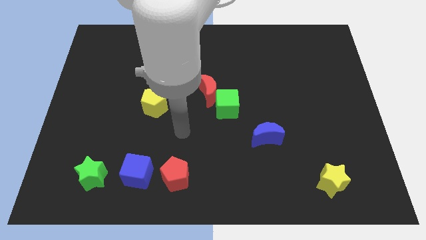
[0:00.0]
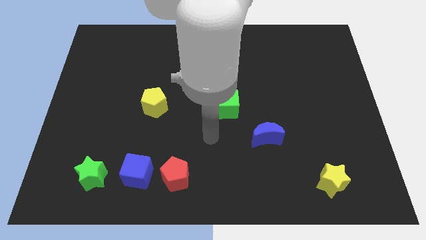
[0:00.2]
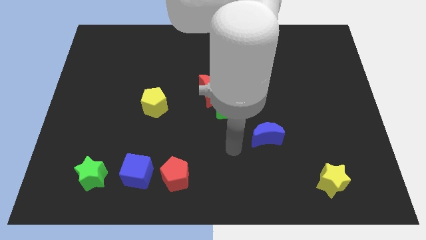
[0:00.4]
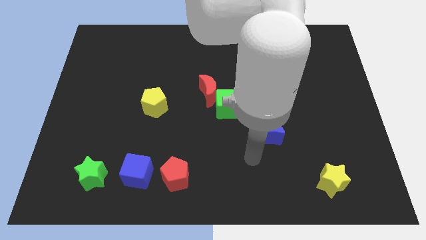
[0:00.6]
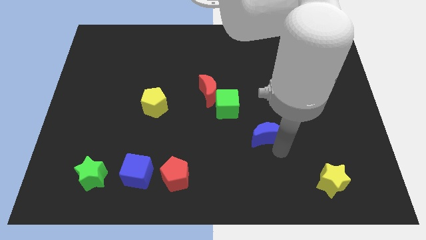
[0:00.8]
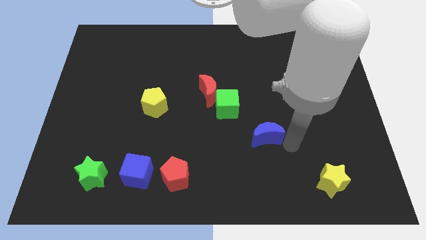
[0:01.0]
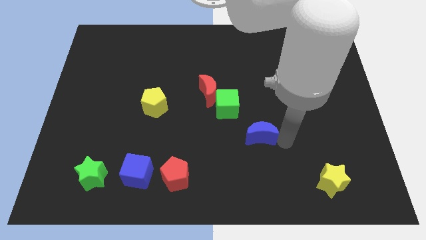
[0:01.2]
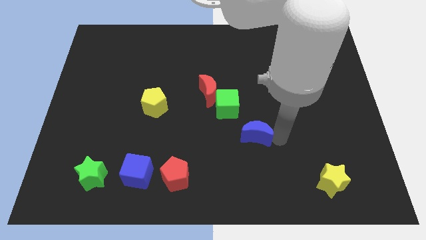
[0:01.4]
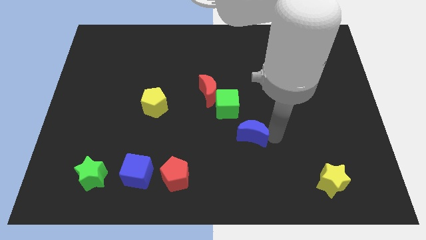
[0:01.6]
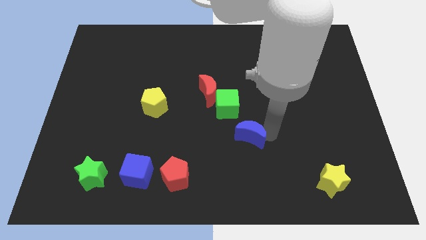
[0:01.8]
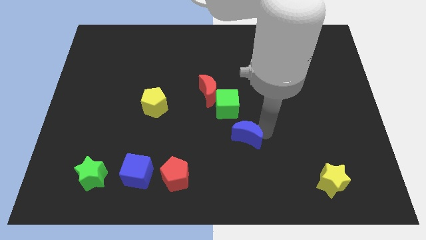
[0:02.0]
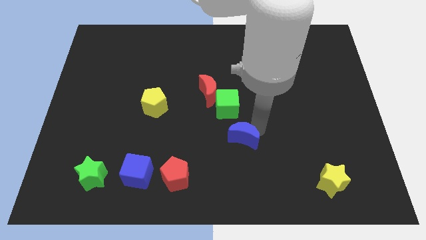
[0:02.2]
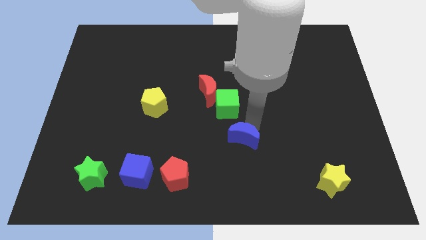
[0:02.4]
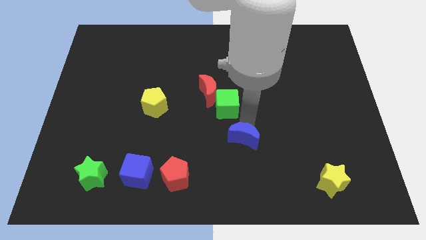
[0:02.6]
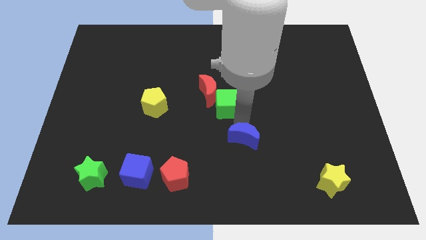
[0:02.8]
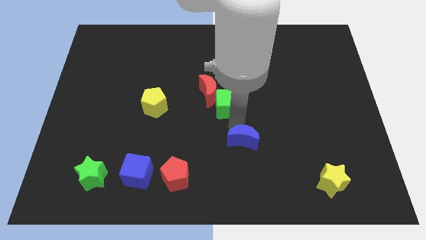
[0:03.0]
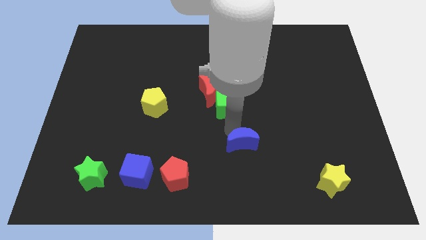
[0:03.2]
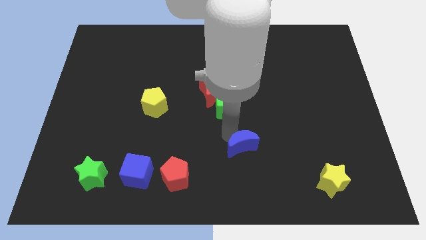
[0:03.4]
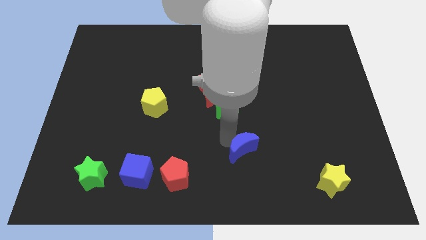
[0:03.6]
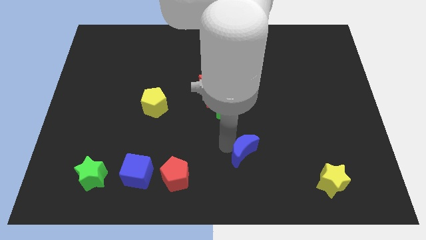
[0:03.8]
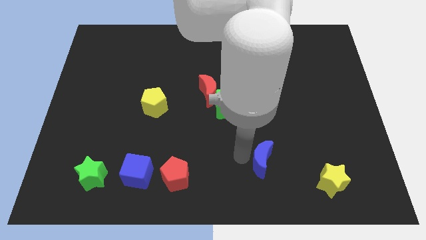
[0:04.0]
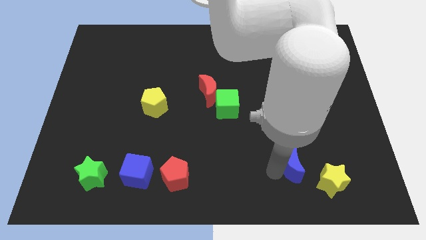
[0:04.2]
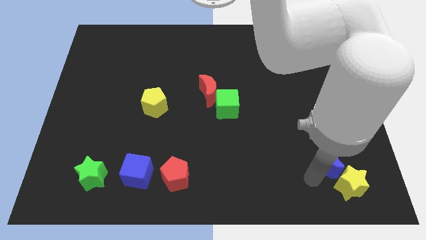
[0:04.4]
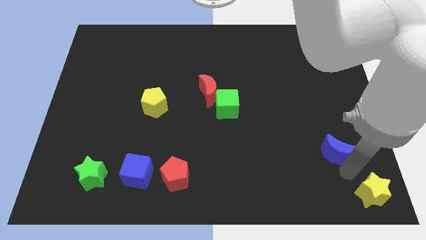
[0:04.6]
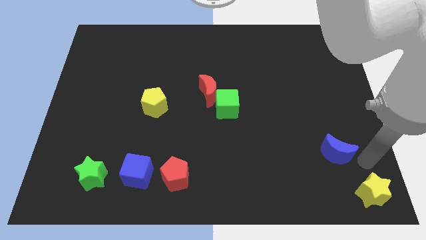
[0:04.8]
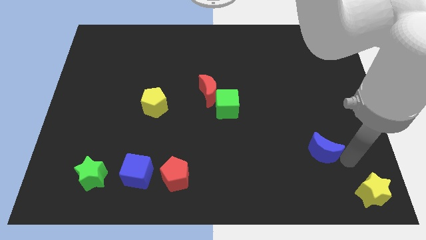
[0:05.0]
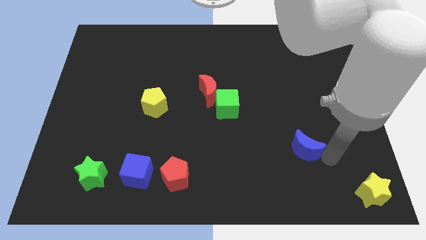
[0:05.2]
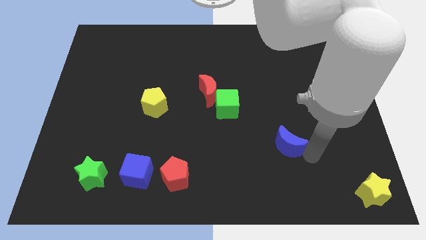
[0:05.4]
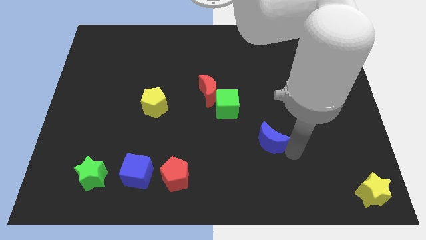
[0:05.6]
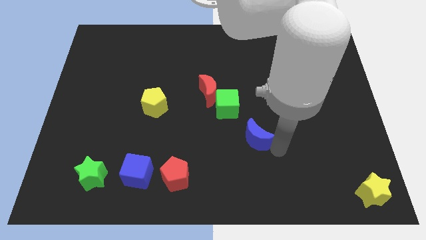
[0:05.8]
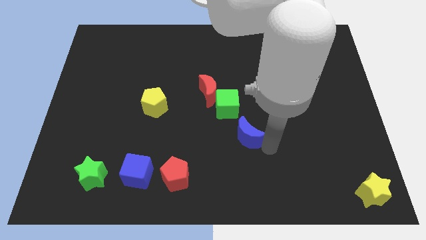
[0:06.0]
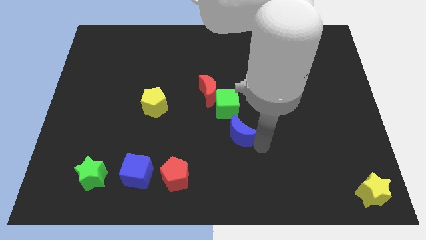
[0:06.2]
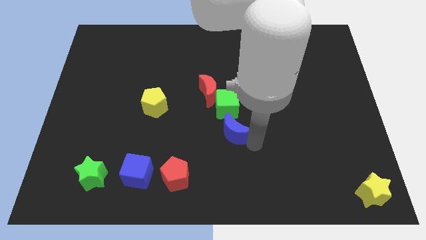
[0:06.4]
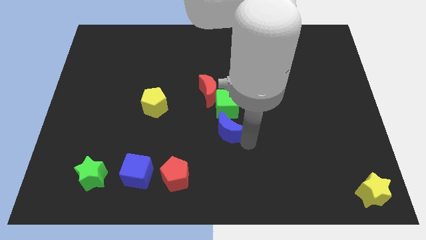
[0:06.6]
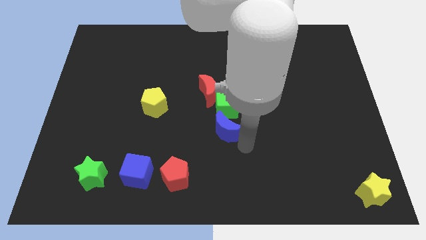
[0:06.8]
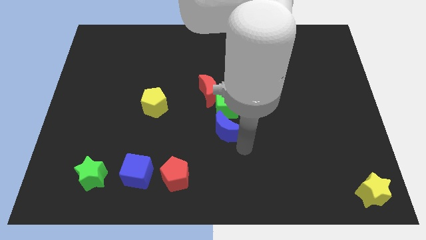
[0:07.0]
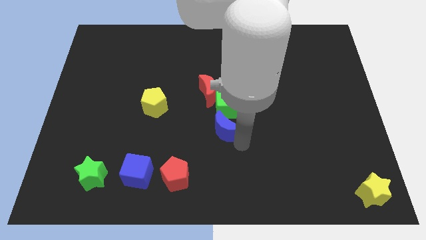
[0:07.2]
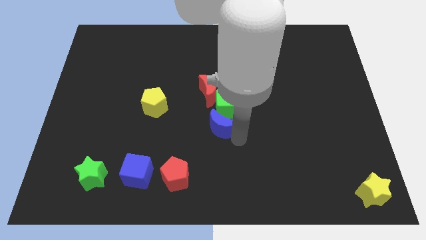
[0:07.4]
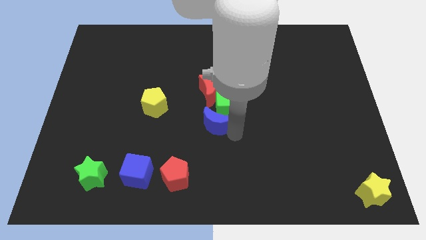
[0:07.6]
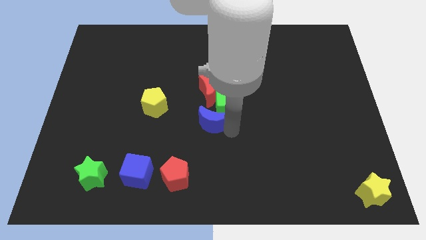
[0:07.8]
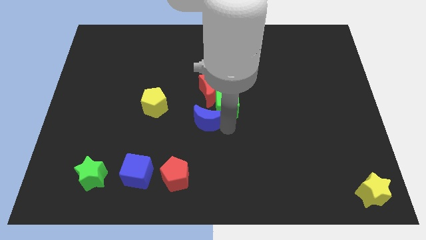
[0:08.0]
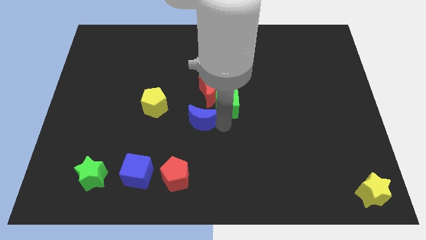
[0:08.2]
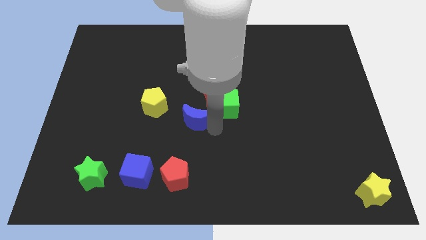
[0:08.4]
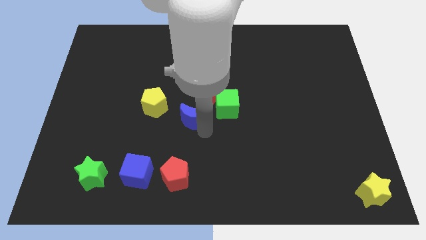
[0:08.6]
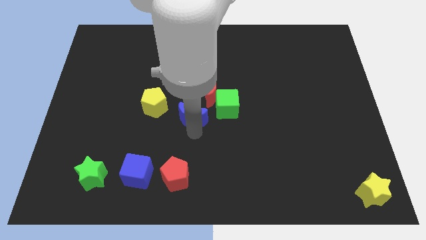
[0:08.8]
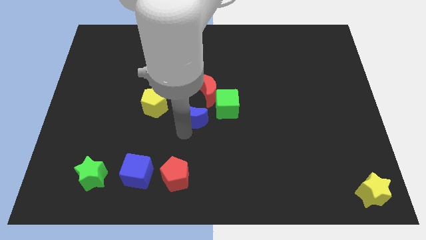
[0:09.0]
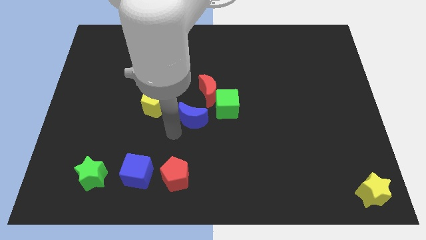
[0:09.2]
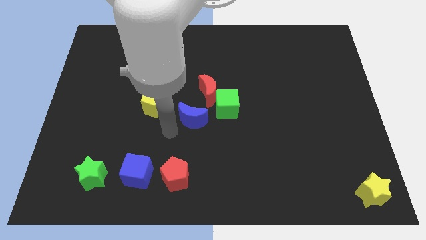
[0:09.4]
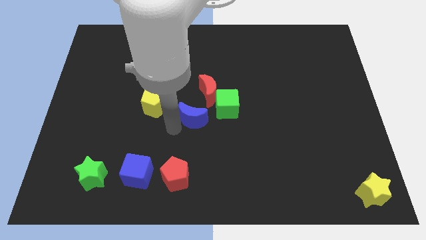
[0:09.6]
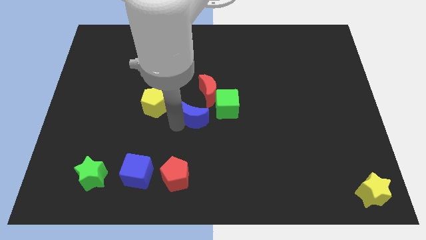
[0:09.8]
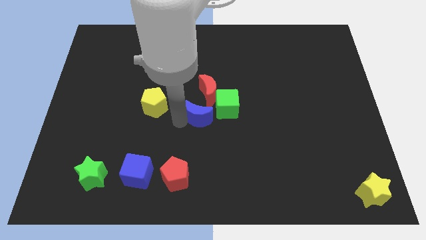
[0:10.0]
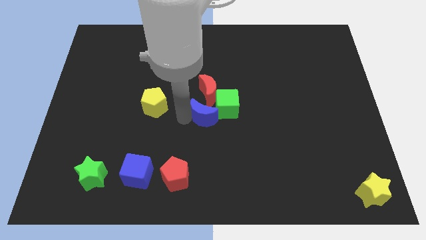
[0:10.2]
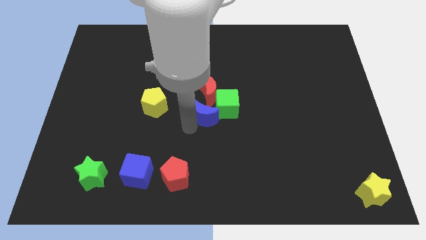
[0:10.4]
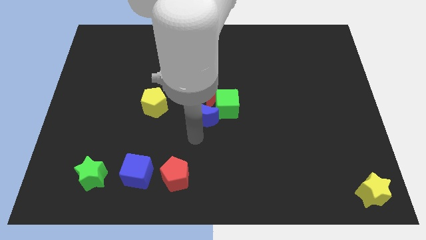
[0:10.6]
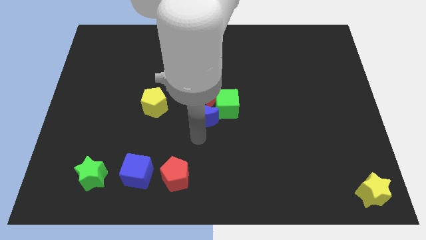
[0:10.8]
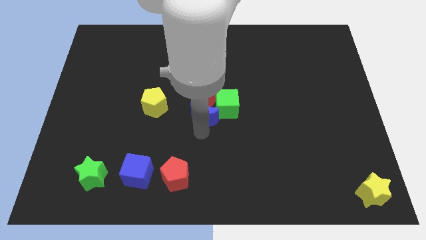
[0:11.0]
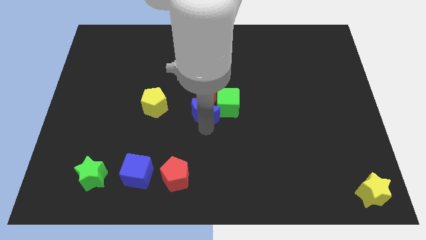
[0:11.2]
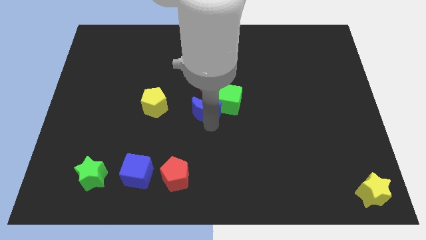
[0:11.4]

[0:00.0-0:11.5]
move the blue moon to the red moon

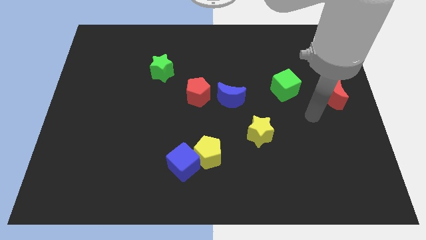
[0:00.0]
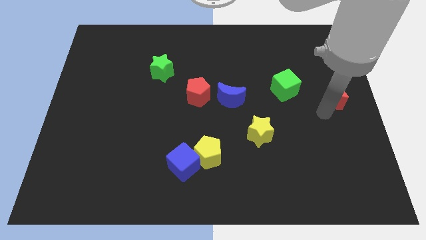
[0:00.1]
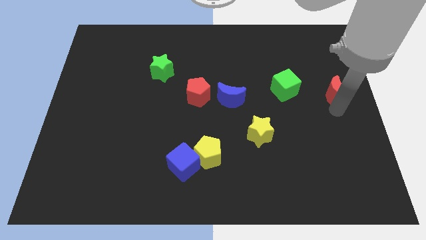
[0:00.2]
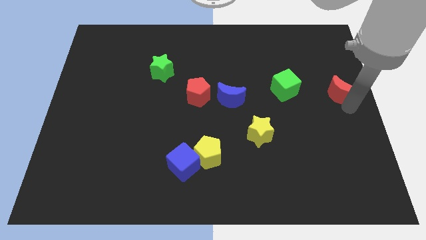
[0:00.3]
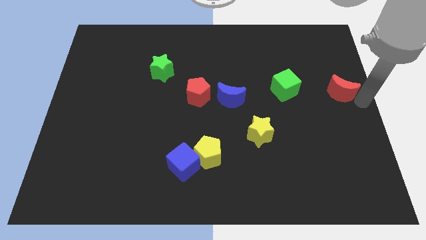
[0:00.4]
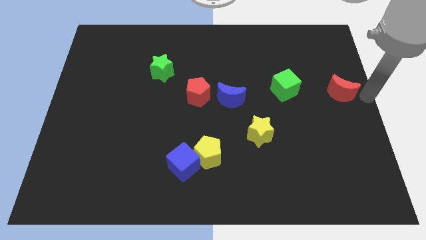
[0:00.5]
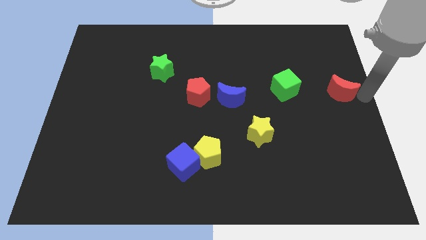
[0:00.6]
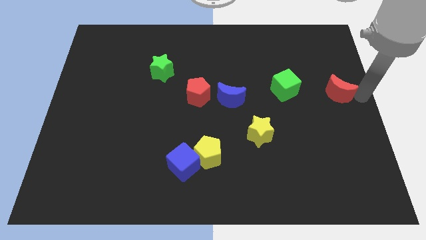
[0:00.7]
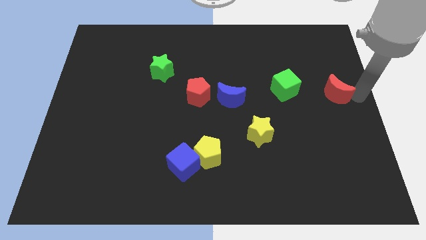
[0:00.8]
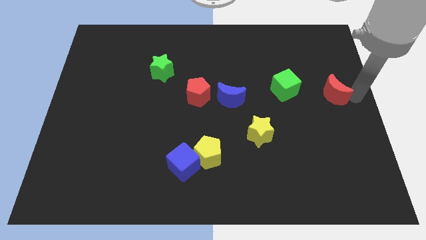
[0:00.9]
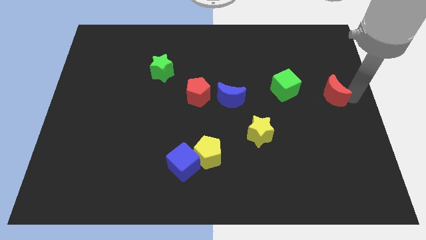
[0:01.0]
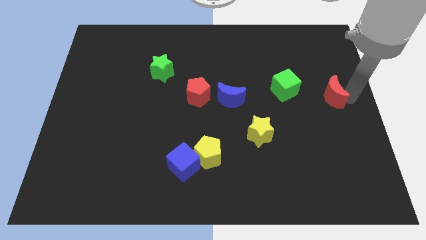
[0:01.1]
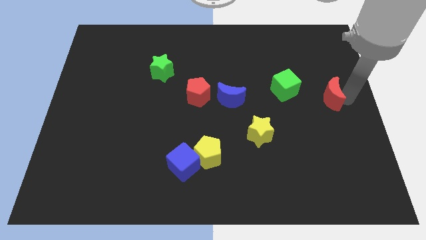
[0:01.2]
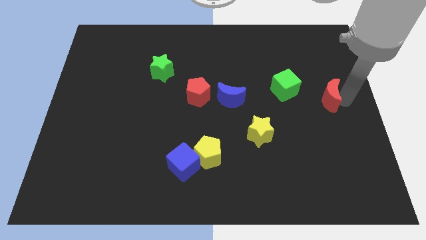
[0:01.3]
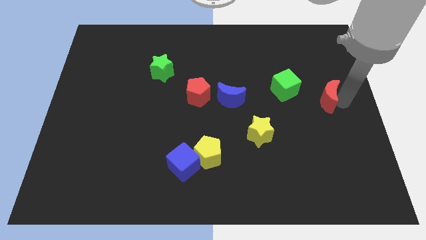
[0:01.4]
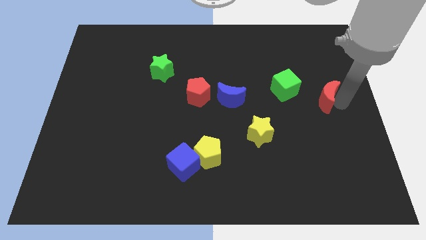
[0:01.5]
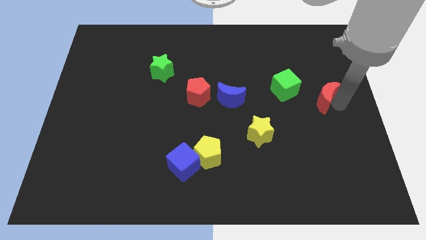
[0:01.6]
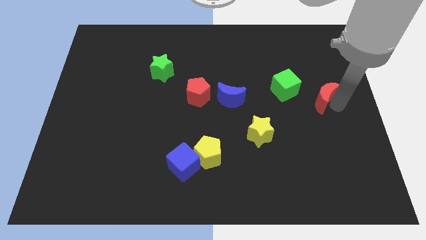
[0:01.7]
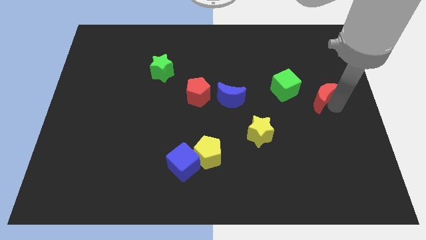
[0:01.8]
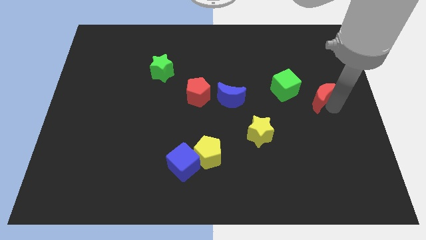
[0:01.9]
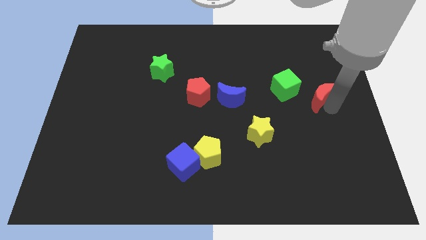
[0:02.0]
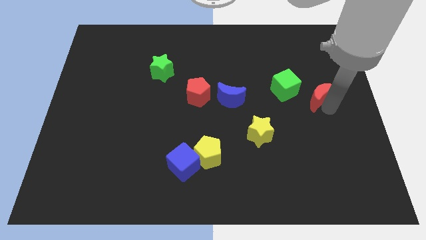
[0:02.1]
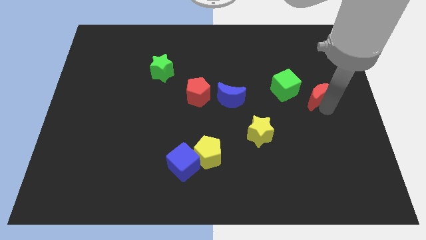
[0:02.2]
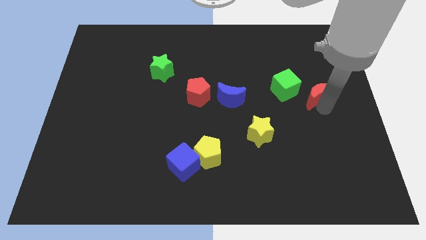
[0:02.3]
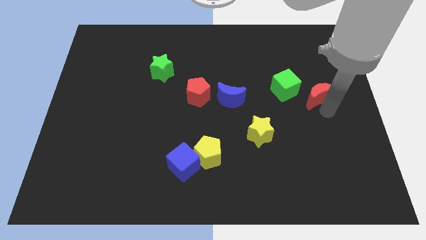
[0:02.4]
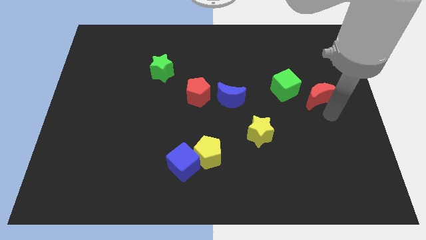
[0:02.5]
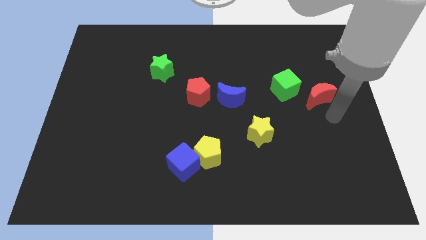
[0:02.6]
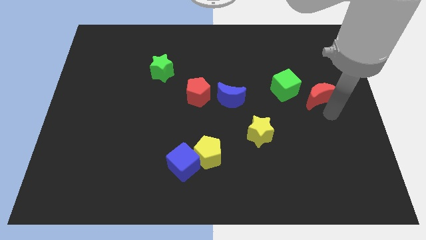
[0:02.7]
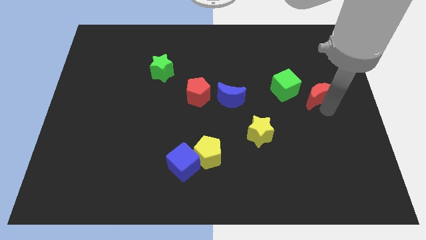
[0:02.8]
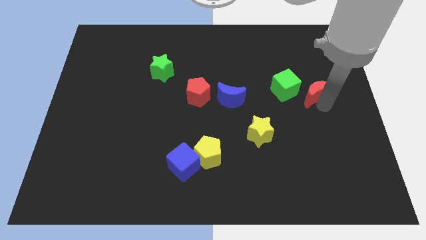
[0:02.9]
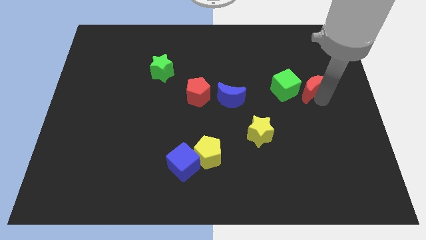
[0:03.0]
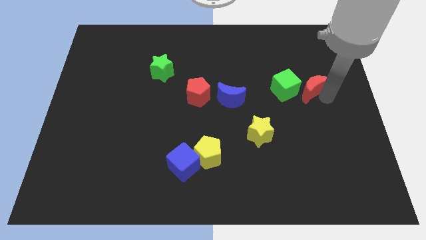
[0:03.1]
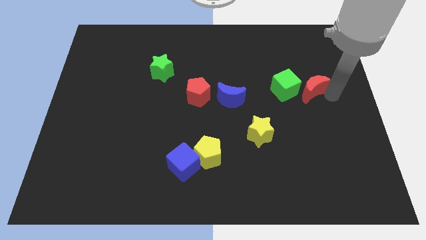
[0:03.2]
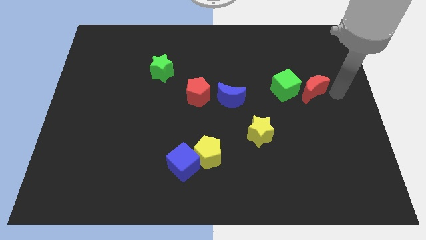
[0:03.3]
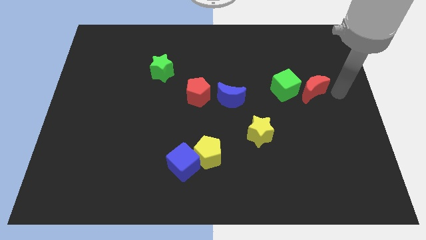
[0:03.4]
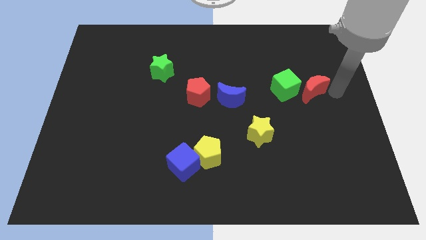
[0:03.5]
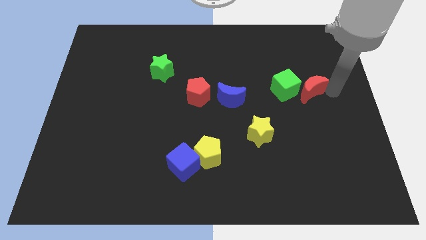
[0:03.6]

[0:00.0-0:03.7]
put the red moon to the green cube
